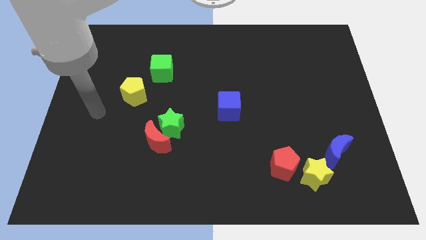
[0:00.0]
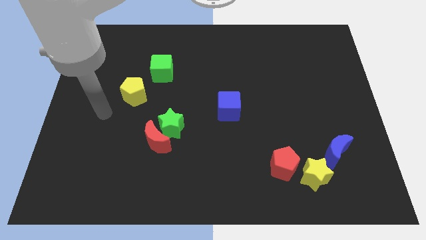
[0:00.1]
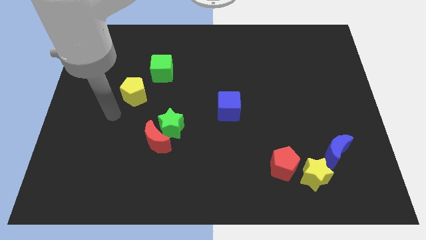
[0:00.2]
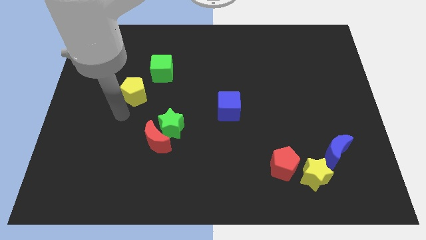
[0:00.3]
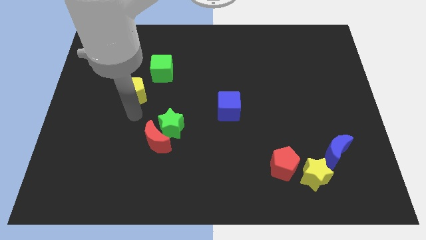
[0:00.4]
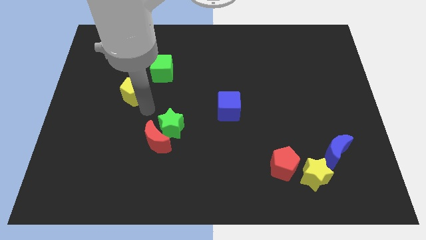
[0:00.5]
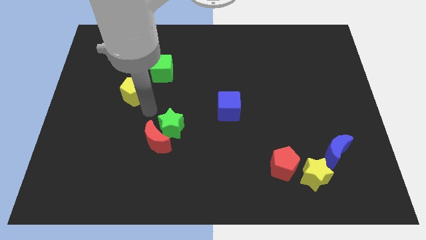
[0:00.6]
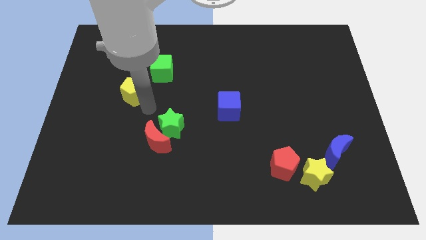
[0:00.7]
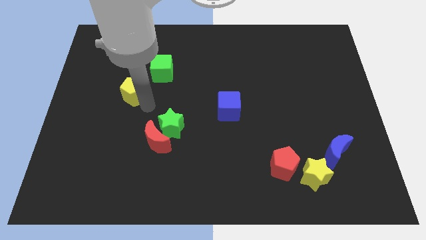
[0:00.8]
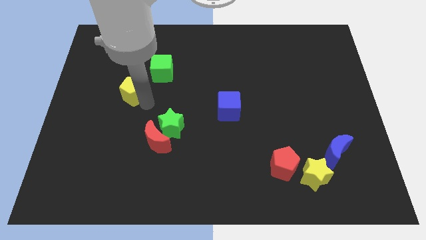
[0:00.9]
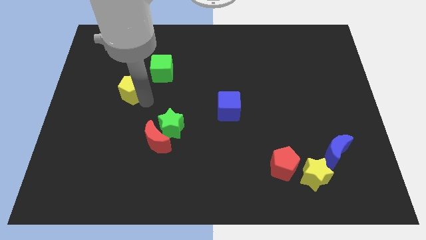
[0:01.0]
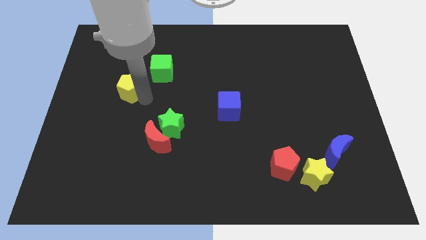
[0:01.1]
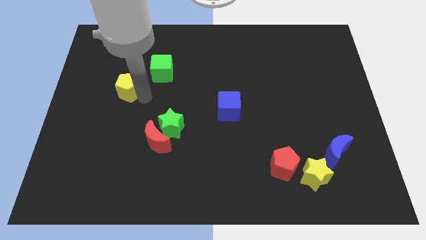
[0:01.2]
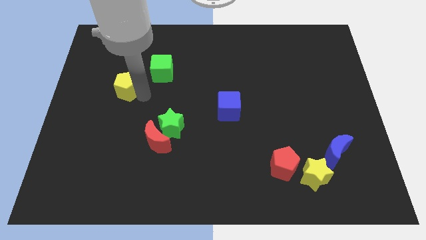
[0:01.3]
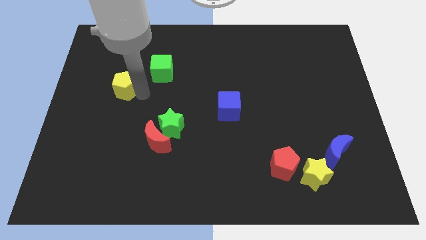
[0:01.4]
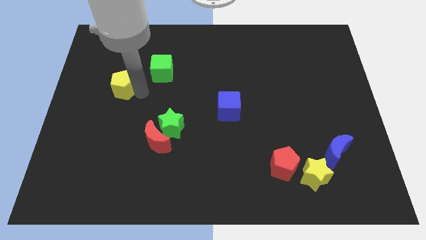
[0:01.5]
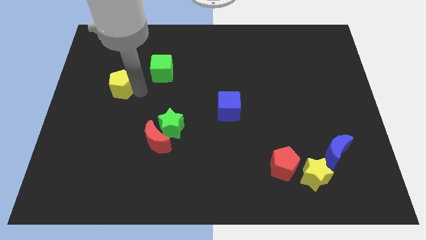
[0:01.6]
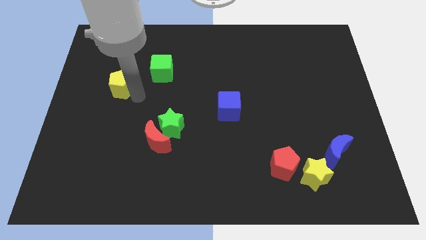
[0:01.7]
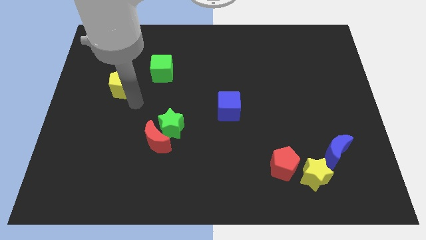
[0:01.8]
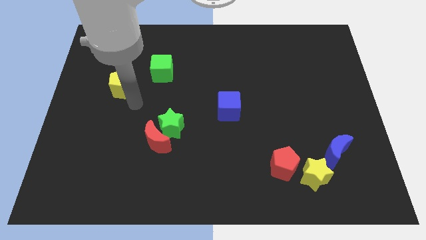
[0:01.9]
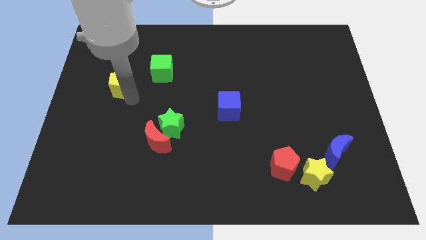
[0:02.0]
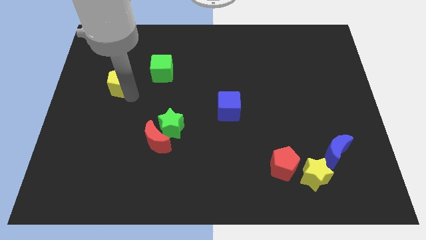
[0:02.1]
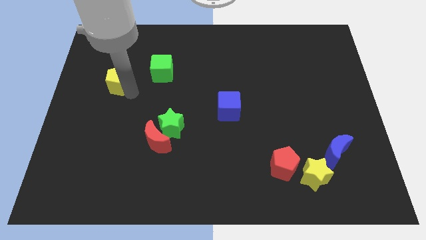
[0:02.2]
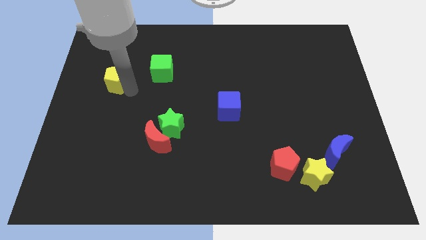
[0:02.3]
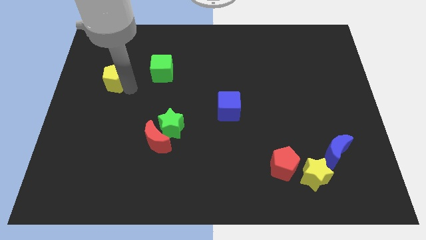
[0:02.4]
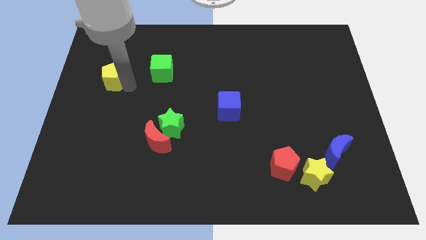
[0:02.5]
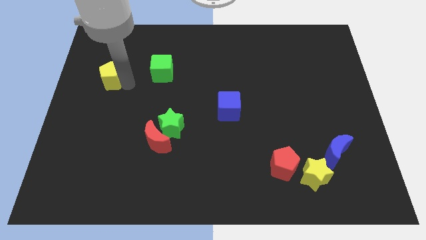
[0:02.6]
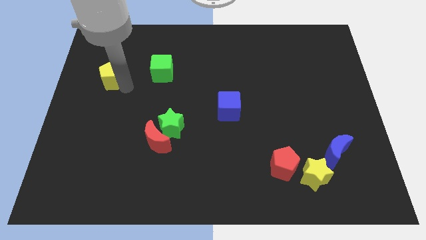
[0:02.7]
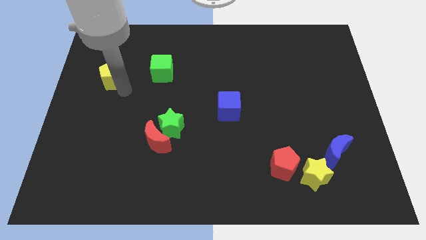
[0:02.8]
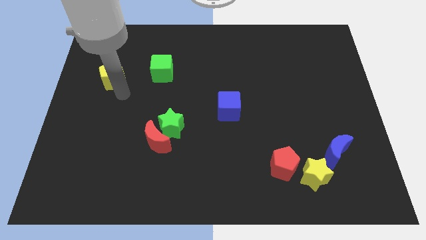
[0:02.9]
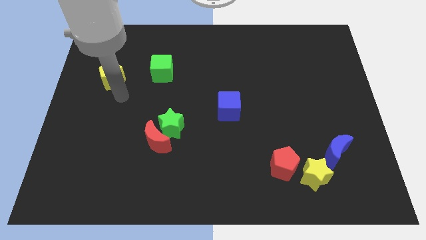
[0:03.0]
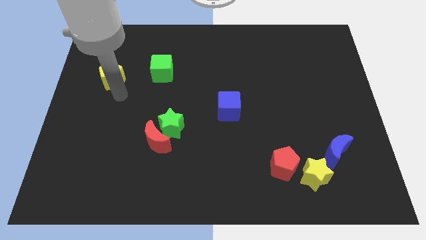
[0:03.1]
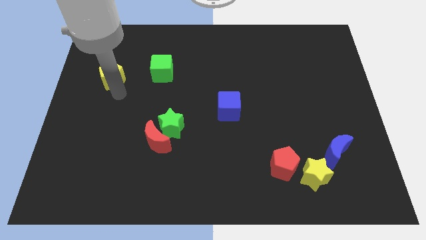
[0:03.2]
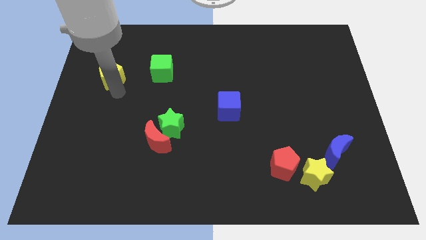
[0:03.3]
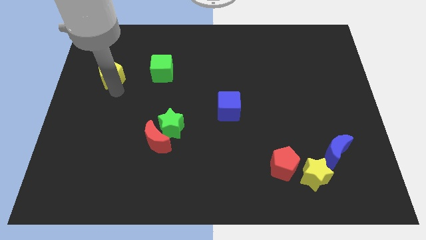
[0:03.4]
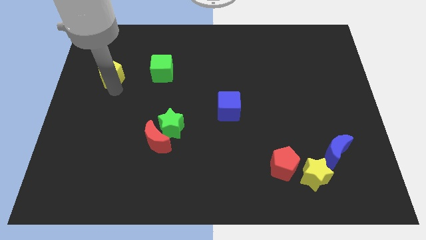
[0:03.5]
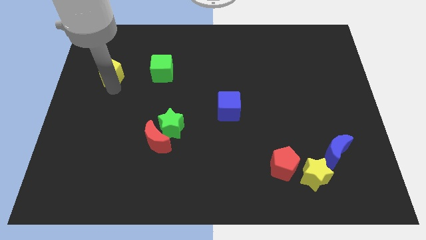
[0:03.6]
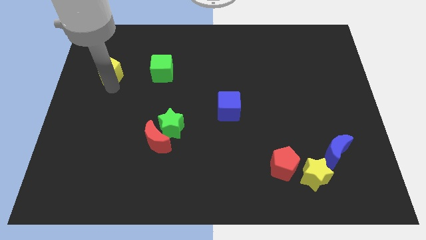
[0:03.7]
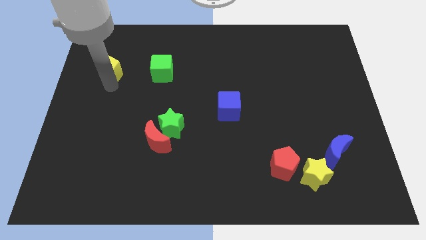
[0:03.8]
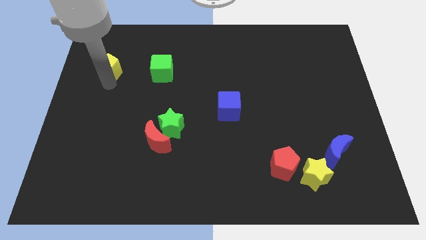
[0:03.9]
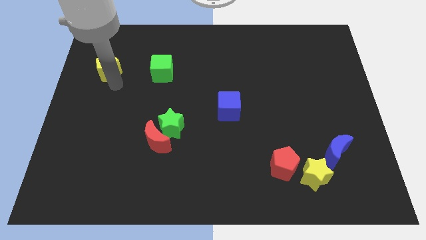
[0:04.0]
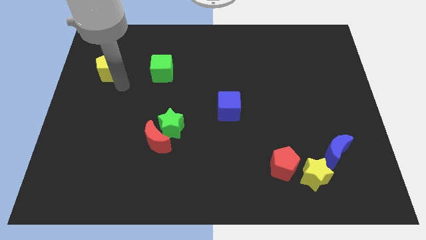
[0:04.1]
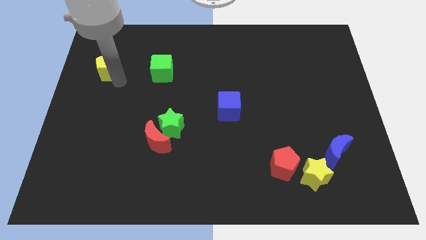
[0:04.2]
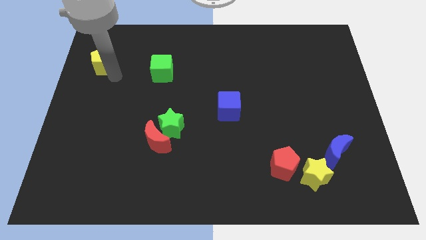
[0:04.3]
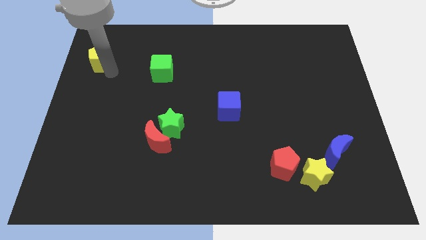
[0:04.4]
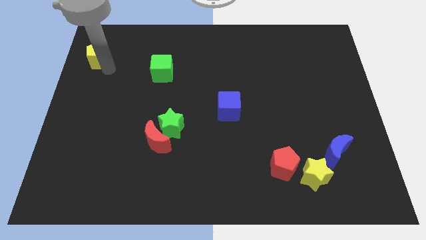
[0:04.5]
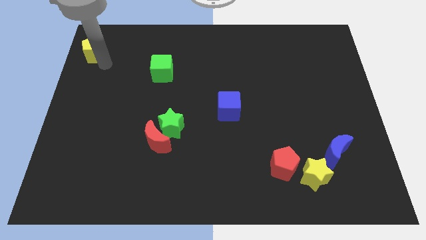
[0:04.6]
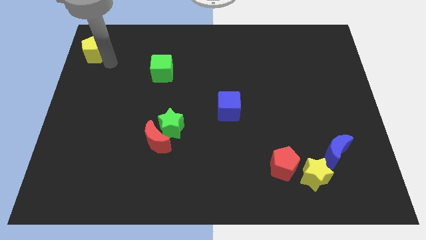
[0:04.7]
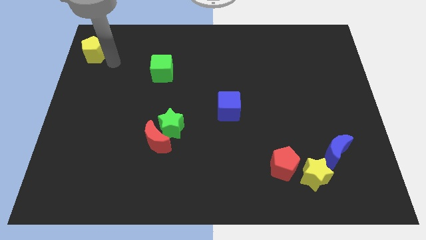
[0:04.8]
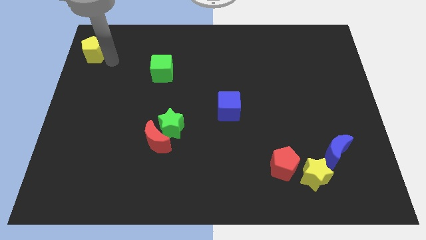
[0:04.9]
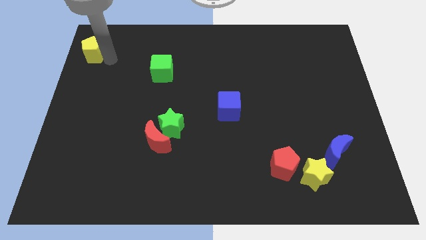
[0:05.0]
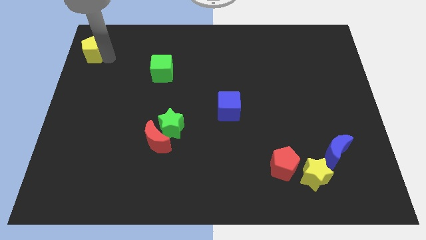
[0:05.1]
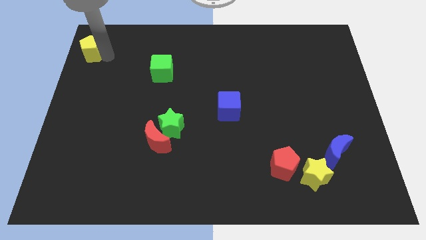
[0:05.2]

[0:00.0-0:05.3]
slide the yellow pentagon to the top left of the board

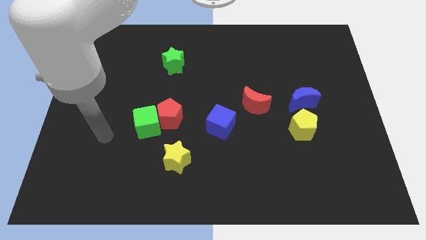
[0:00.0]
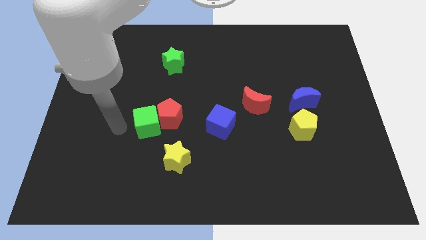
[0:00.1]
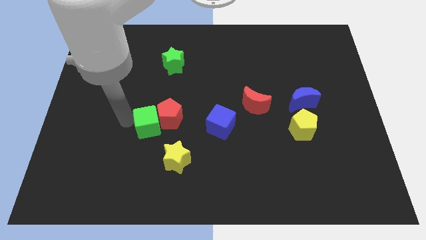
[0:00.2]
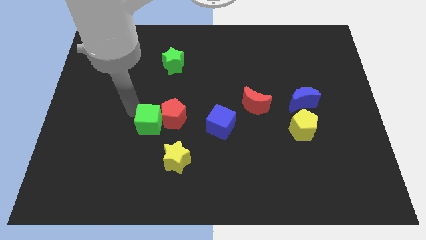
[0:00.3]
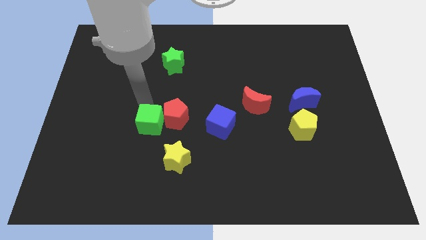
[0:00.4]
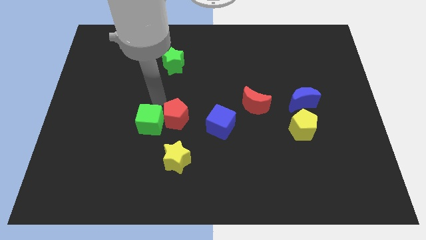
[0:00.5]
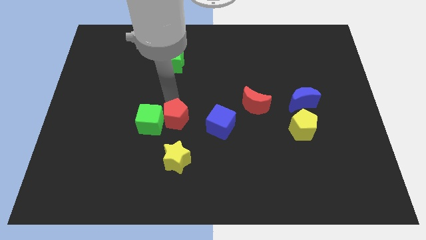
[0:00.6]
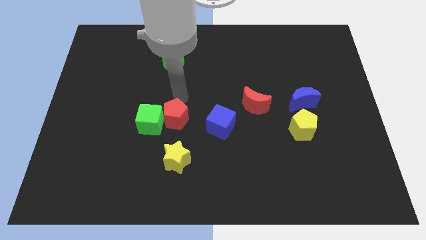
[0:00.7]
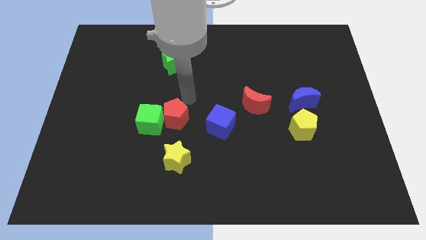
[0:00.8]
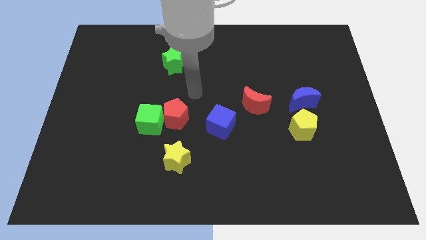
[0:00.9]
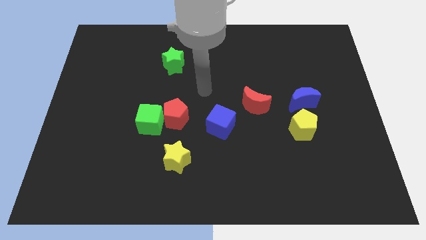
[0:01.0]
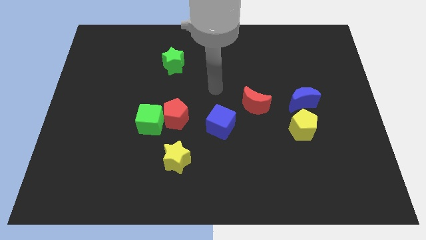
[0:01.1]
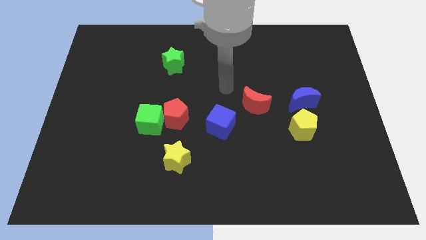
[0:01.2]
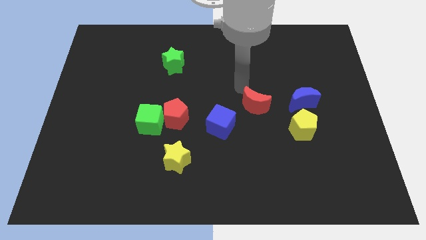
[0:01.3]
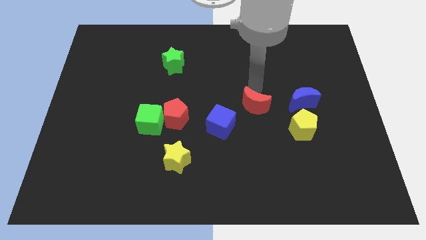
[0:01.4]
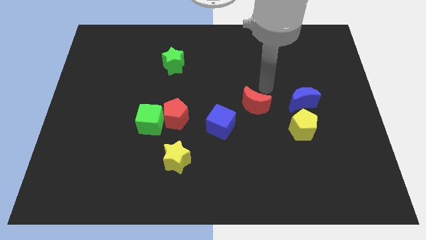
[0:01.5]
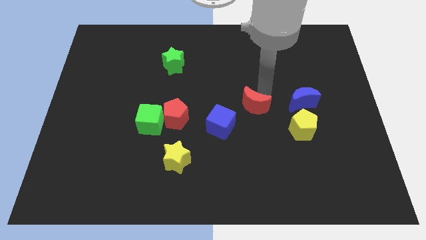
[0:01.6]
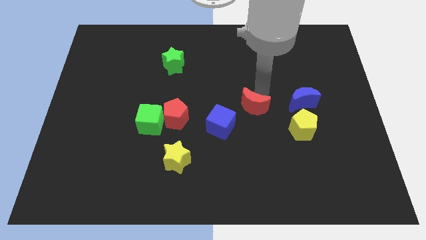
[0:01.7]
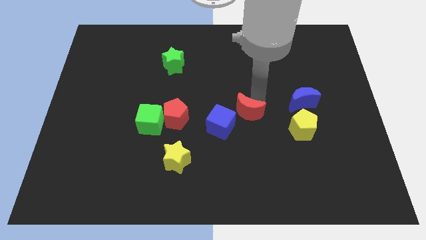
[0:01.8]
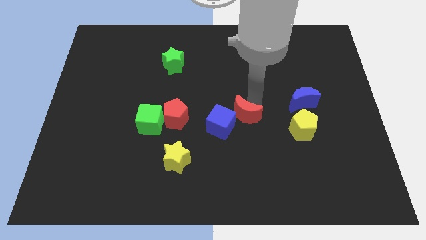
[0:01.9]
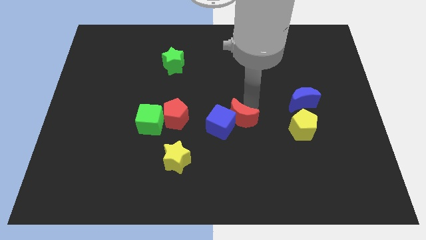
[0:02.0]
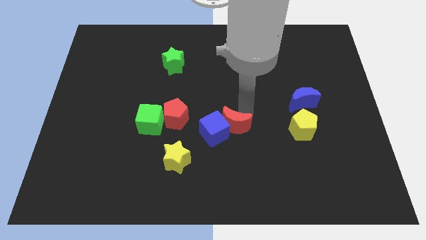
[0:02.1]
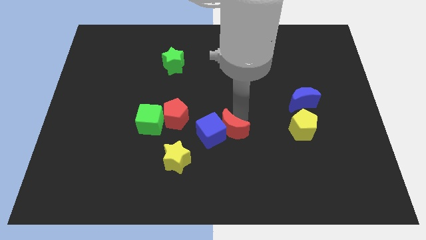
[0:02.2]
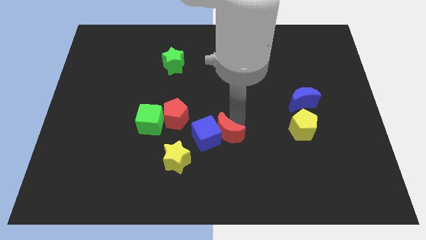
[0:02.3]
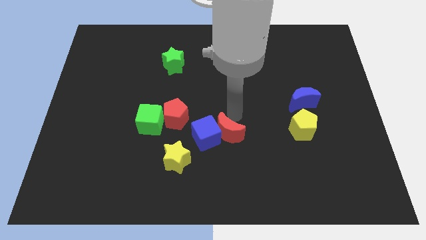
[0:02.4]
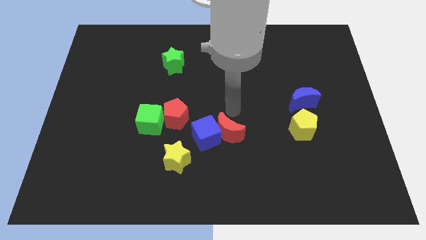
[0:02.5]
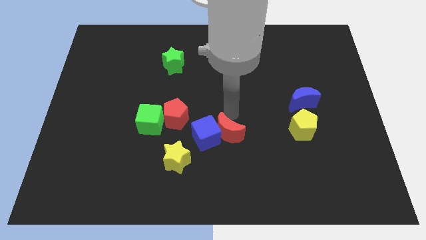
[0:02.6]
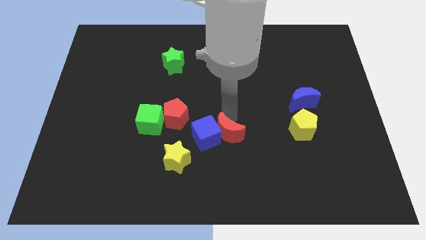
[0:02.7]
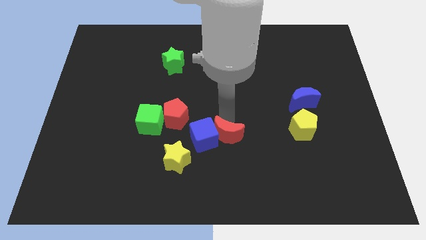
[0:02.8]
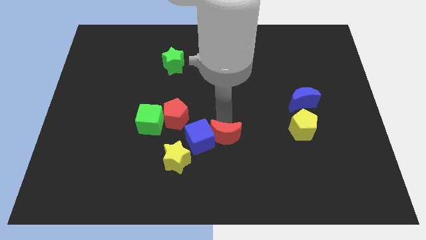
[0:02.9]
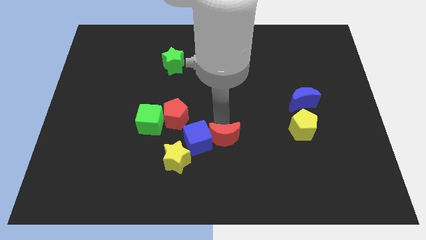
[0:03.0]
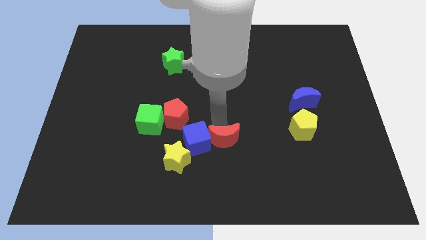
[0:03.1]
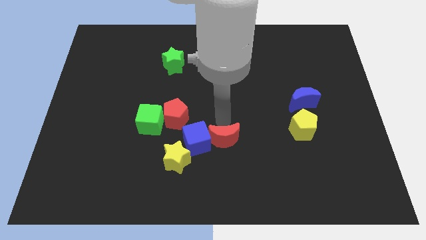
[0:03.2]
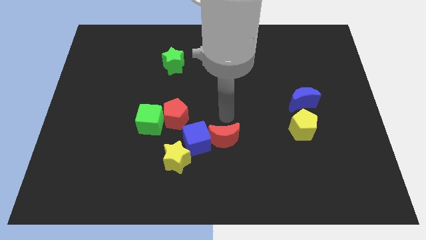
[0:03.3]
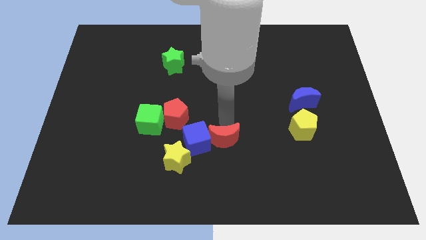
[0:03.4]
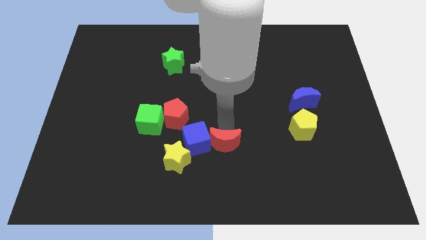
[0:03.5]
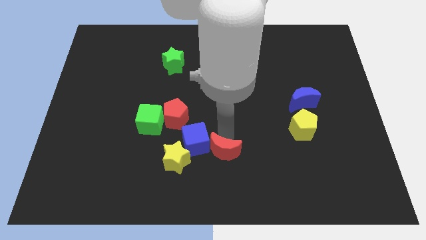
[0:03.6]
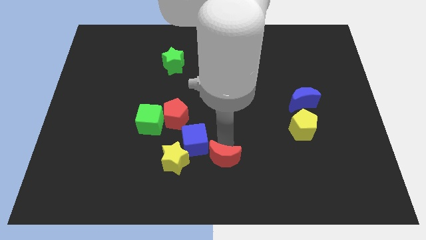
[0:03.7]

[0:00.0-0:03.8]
move the red moon to the bottom
